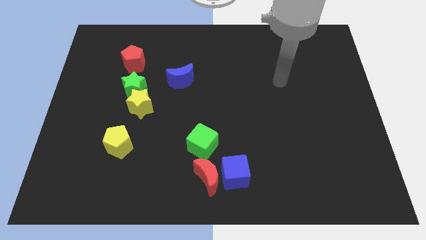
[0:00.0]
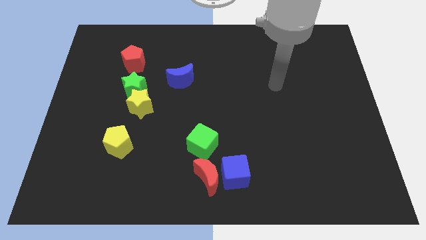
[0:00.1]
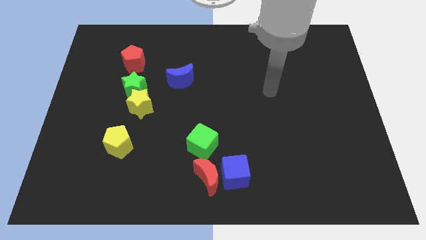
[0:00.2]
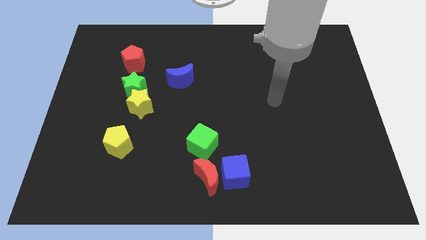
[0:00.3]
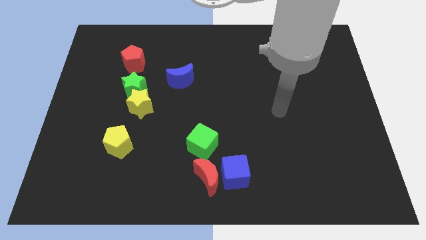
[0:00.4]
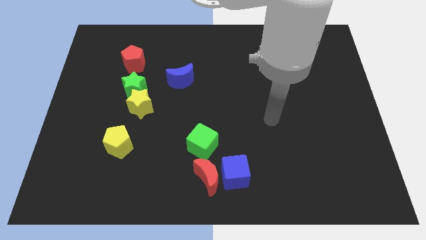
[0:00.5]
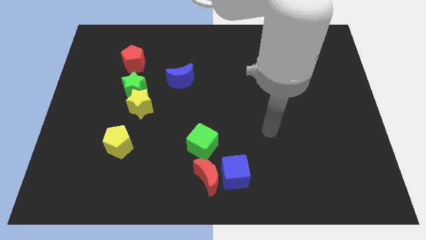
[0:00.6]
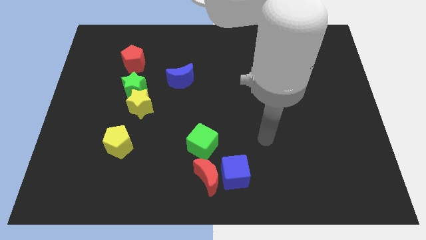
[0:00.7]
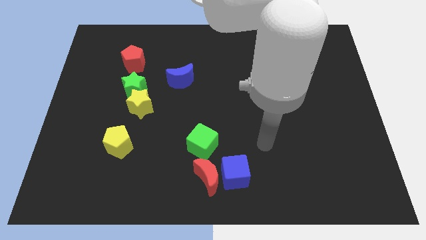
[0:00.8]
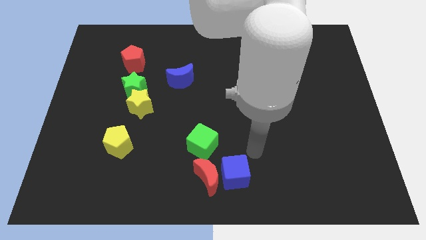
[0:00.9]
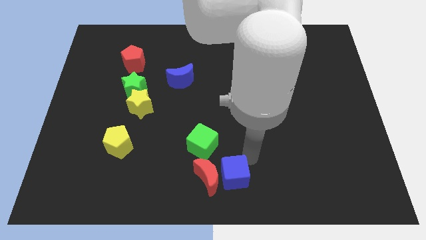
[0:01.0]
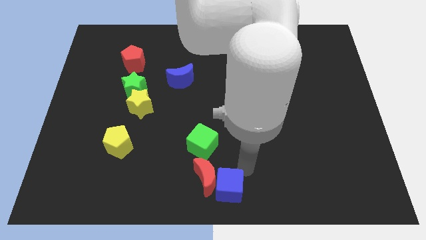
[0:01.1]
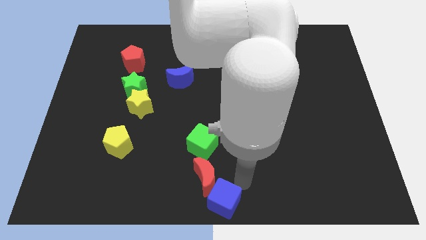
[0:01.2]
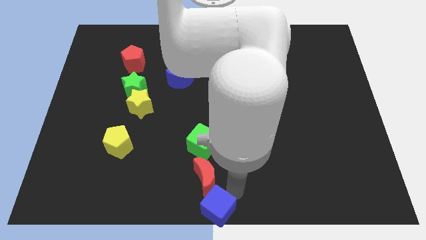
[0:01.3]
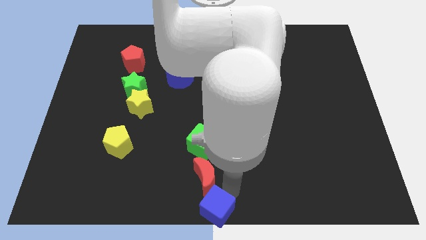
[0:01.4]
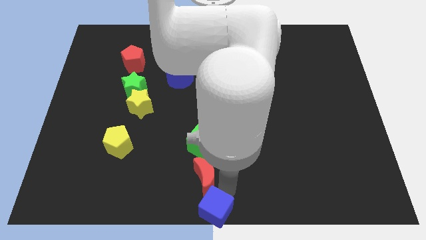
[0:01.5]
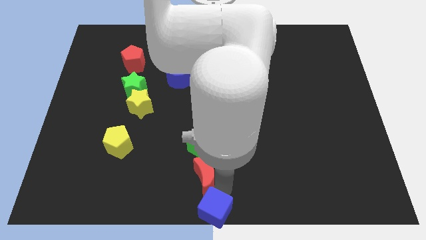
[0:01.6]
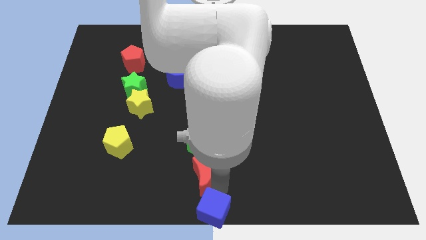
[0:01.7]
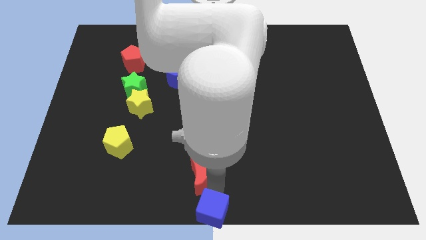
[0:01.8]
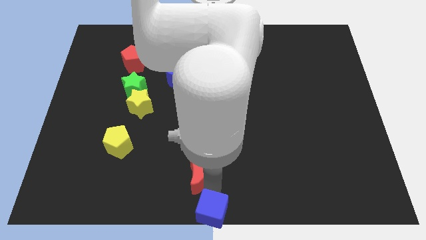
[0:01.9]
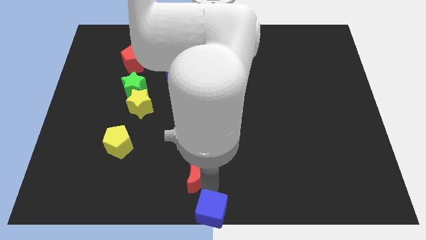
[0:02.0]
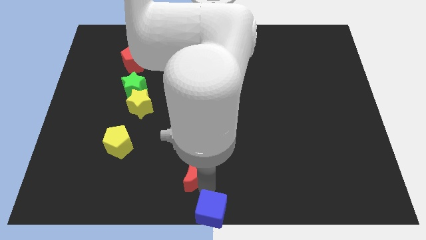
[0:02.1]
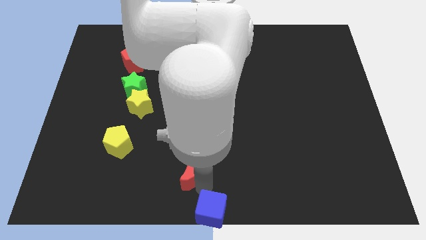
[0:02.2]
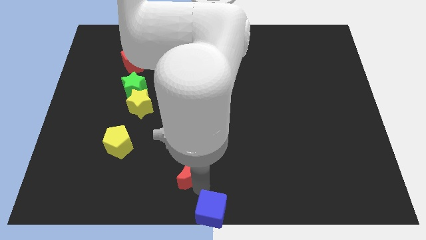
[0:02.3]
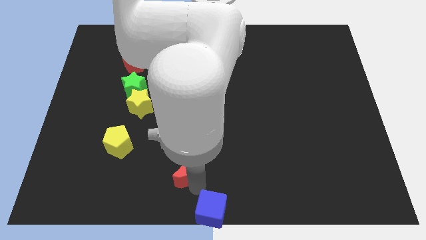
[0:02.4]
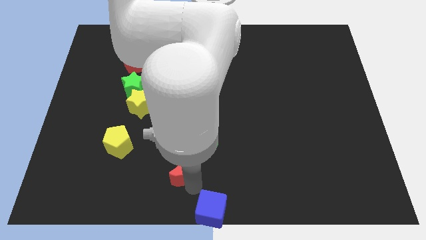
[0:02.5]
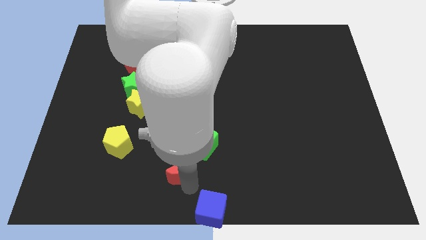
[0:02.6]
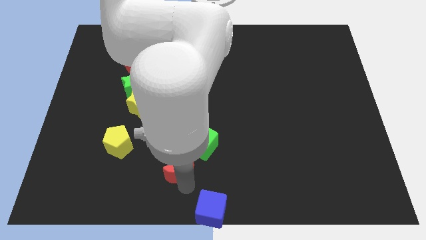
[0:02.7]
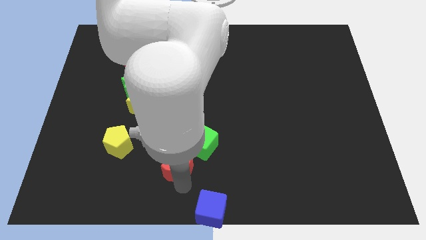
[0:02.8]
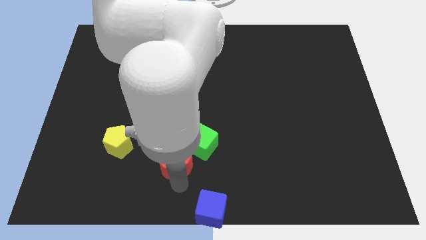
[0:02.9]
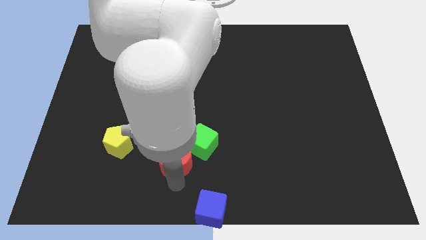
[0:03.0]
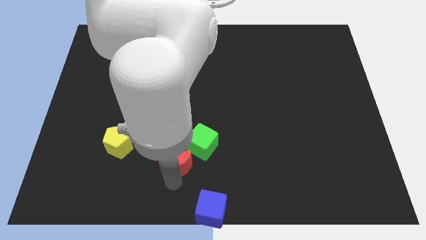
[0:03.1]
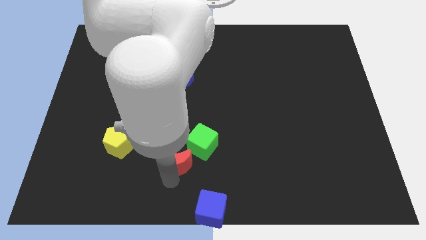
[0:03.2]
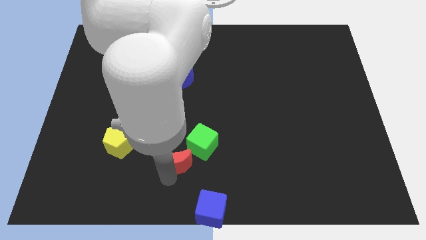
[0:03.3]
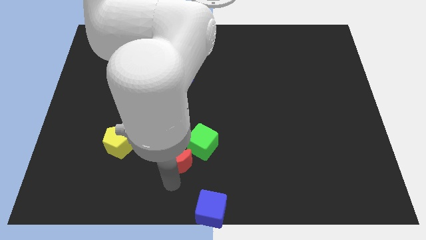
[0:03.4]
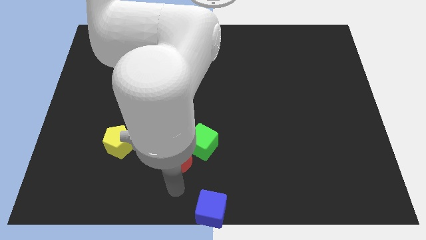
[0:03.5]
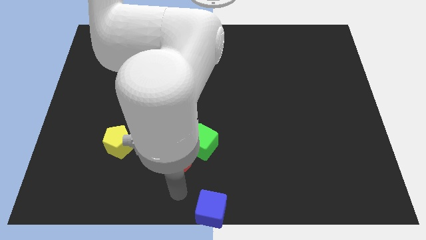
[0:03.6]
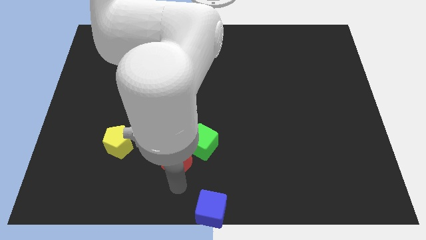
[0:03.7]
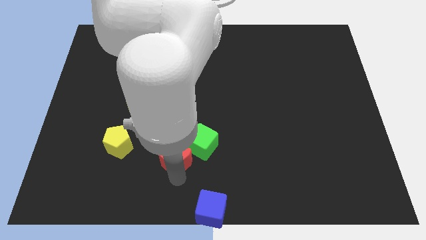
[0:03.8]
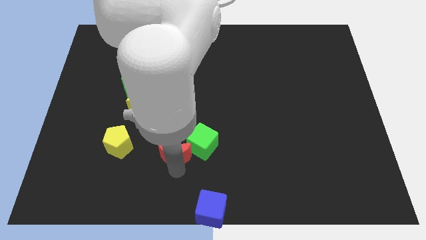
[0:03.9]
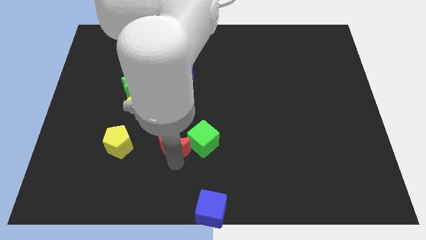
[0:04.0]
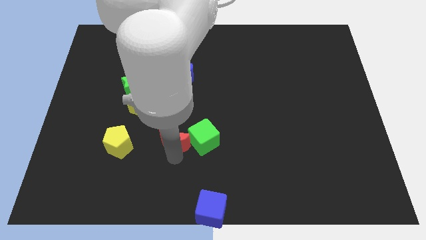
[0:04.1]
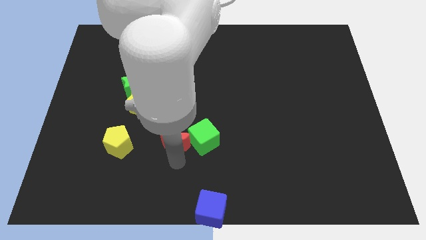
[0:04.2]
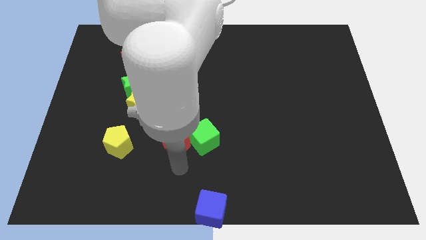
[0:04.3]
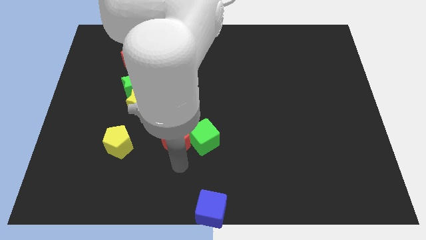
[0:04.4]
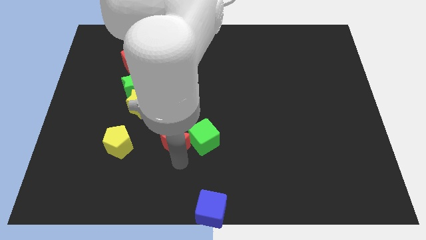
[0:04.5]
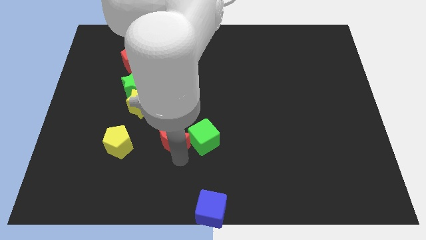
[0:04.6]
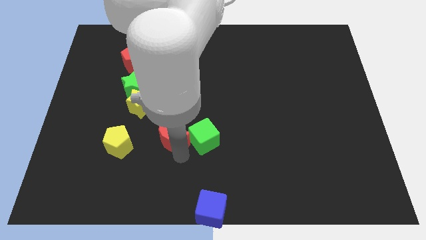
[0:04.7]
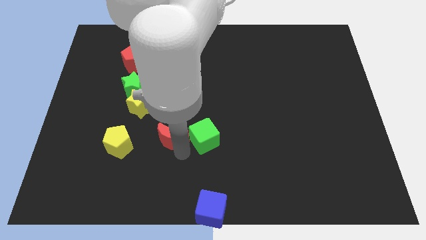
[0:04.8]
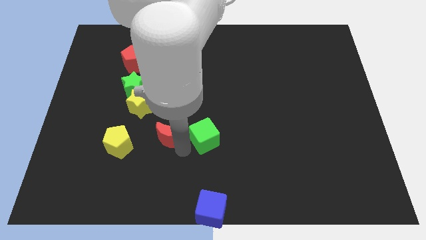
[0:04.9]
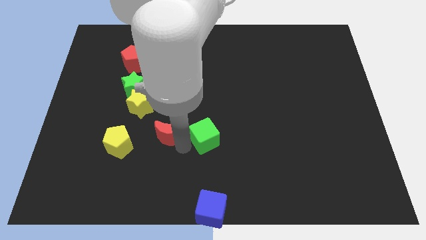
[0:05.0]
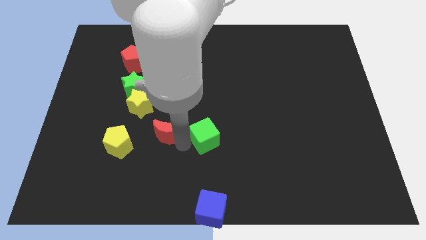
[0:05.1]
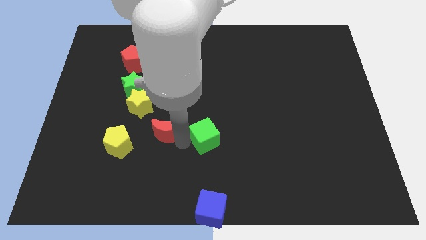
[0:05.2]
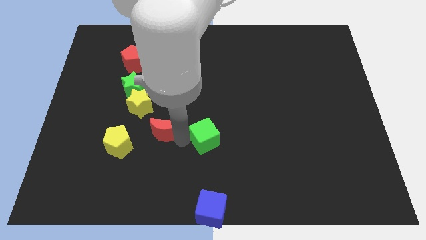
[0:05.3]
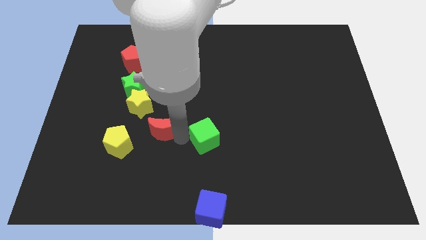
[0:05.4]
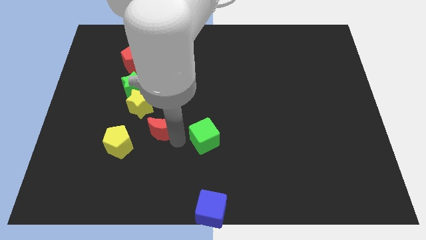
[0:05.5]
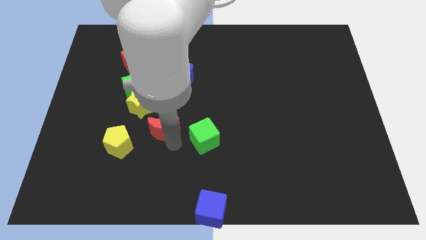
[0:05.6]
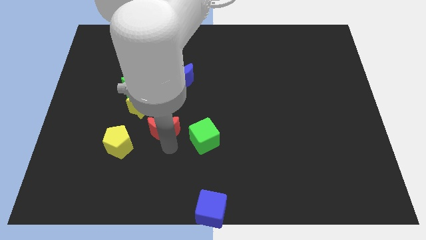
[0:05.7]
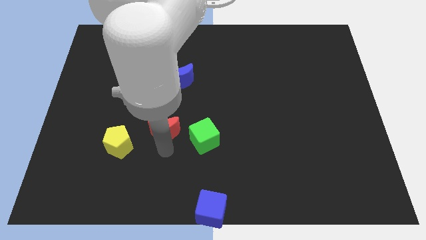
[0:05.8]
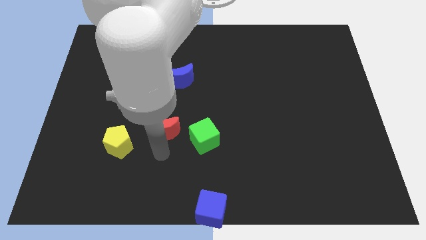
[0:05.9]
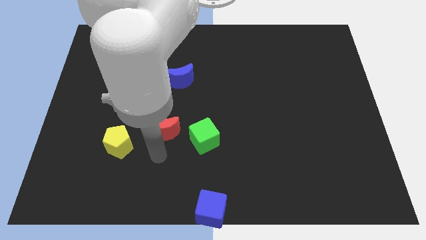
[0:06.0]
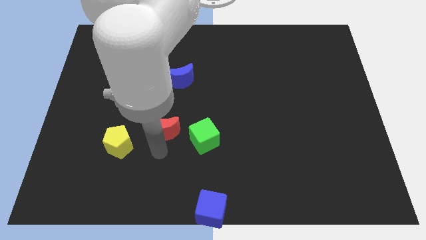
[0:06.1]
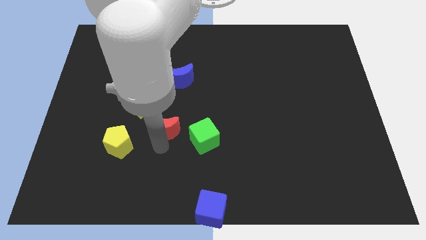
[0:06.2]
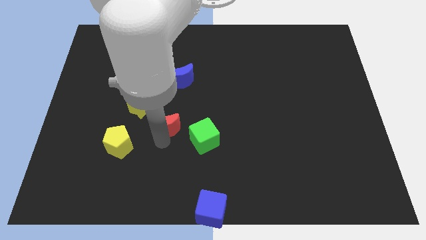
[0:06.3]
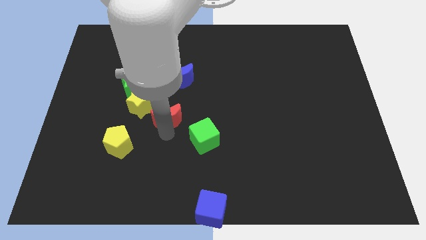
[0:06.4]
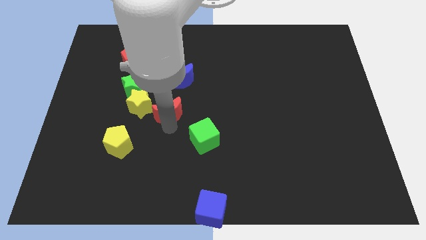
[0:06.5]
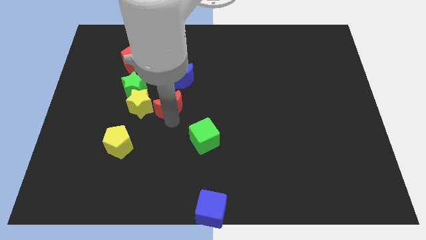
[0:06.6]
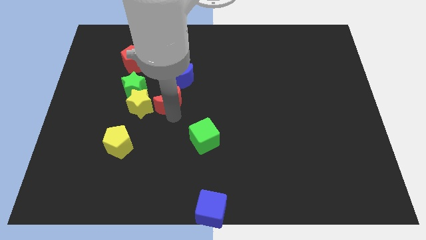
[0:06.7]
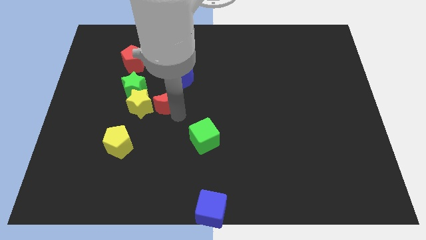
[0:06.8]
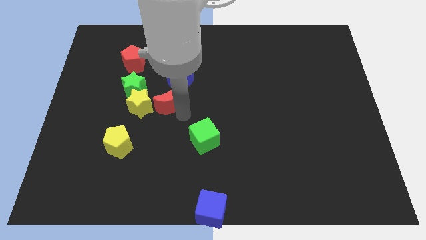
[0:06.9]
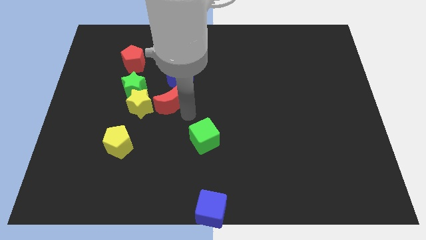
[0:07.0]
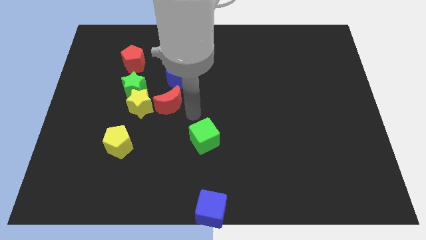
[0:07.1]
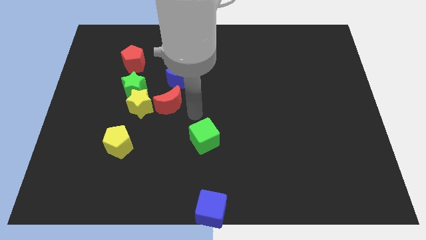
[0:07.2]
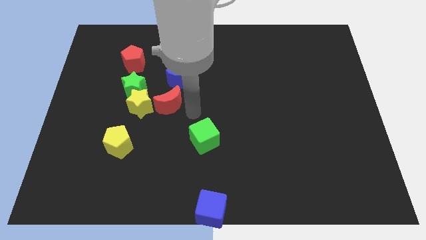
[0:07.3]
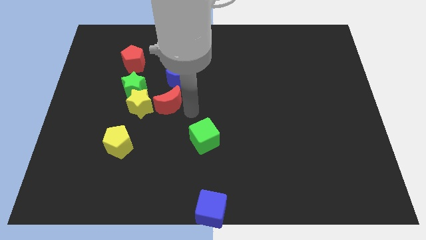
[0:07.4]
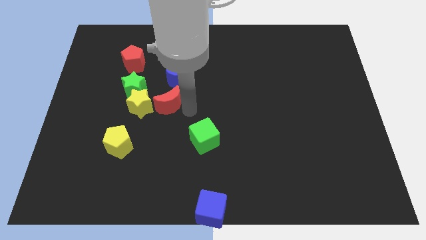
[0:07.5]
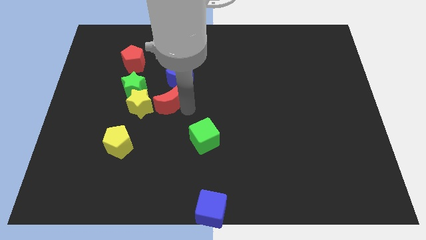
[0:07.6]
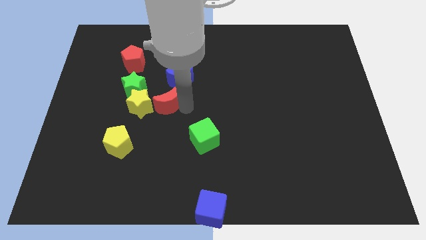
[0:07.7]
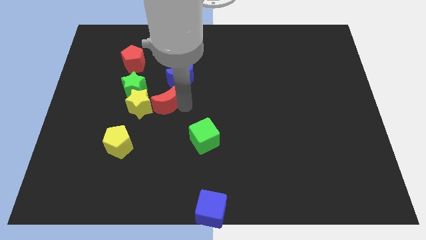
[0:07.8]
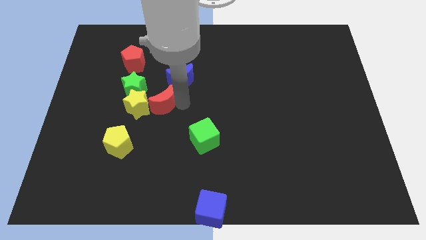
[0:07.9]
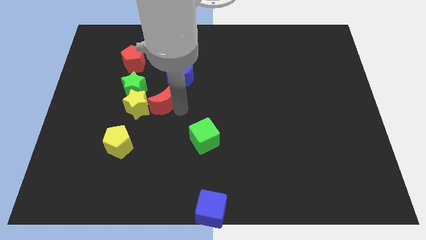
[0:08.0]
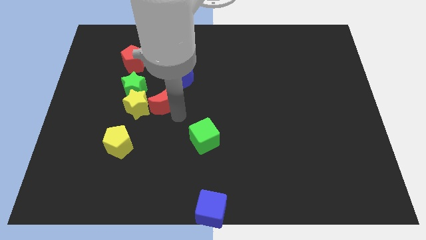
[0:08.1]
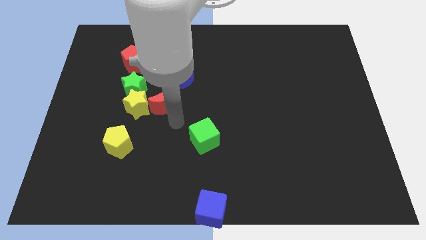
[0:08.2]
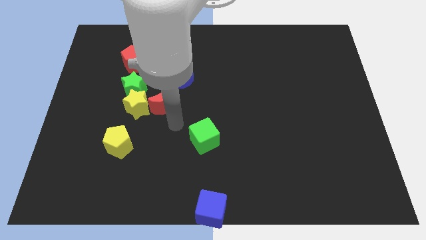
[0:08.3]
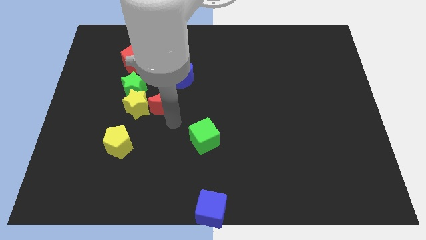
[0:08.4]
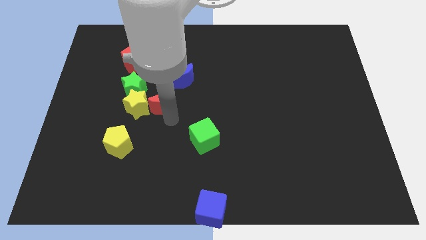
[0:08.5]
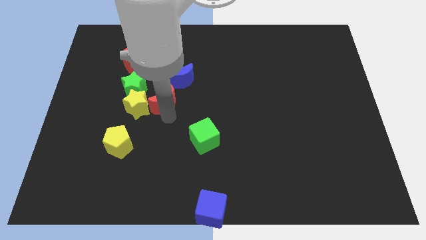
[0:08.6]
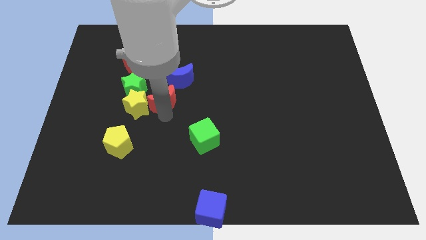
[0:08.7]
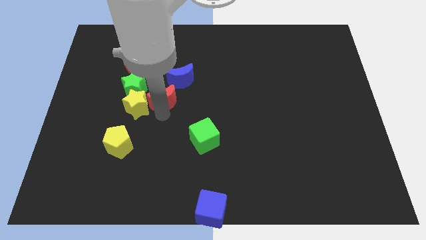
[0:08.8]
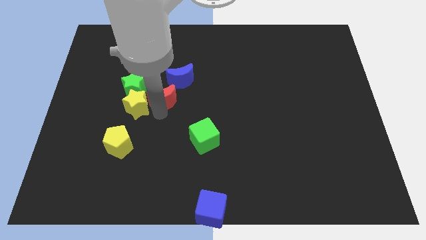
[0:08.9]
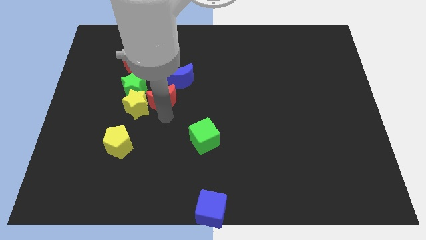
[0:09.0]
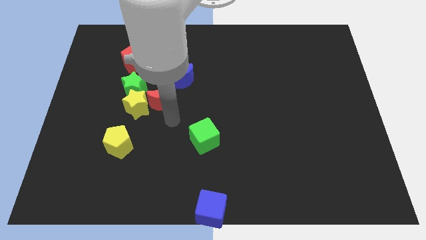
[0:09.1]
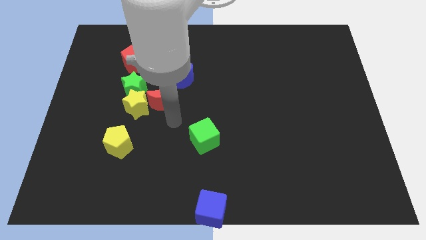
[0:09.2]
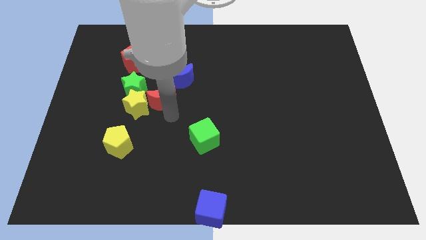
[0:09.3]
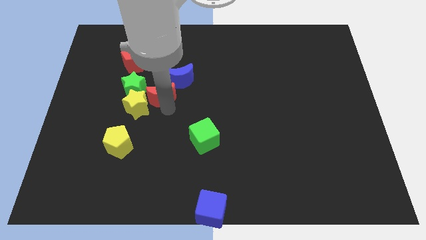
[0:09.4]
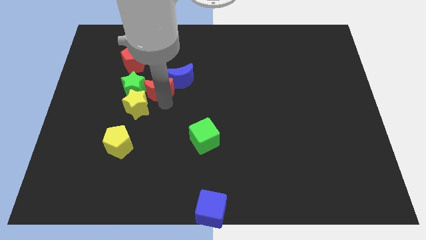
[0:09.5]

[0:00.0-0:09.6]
move the red moon to the bottom right of the red pentagon
